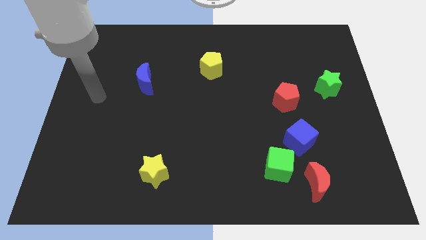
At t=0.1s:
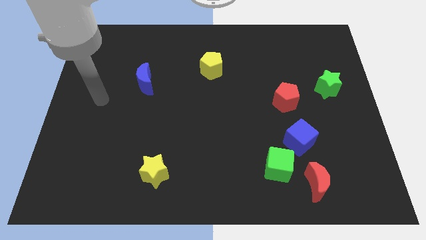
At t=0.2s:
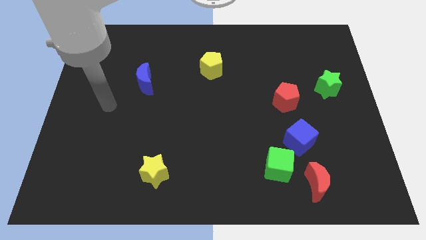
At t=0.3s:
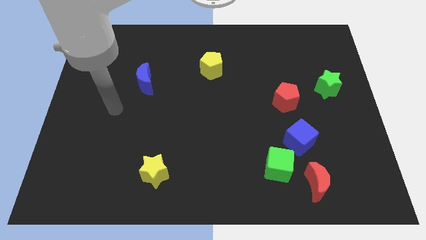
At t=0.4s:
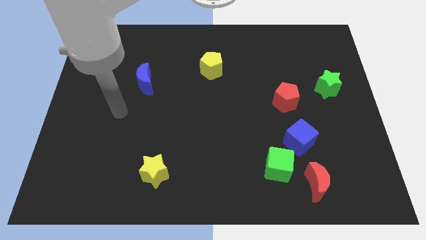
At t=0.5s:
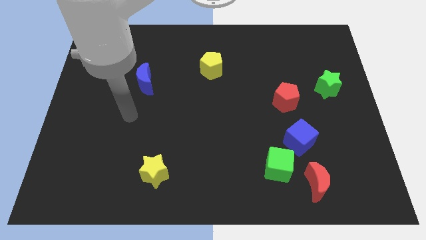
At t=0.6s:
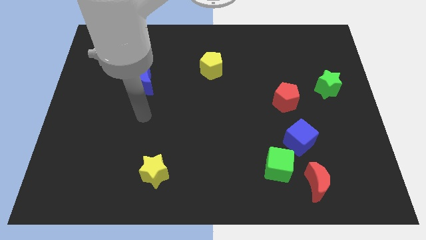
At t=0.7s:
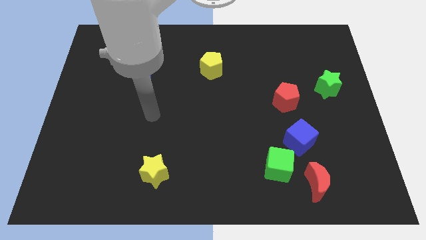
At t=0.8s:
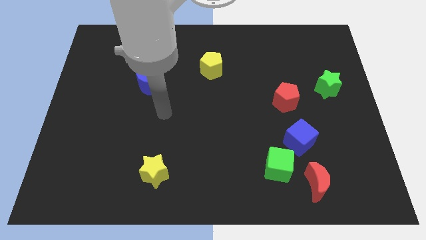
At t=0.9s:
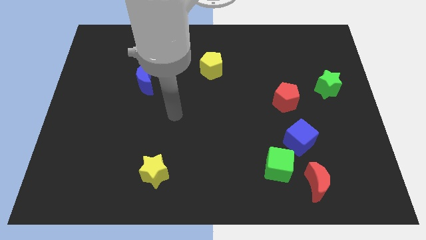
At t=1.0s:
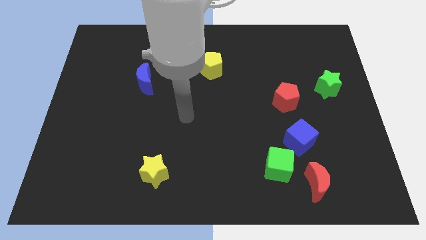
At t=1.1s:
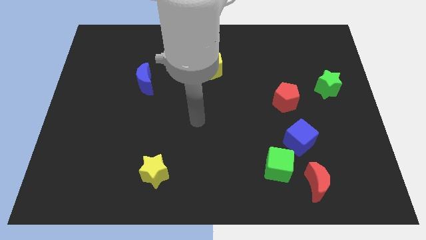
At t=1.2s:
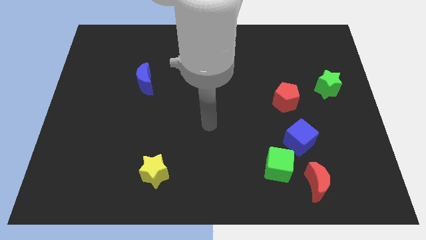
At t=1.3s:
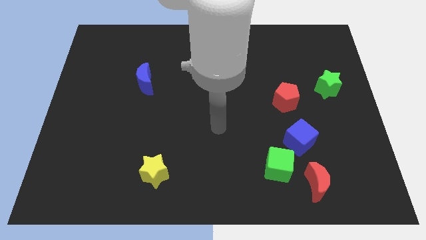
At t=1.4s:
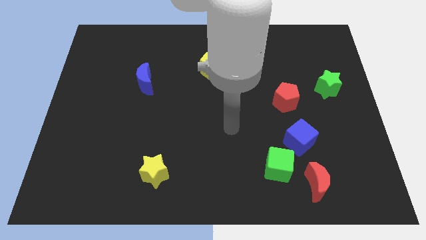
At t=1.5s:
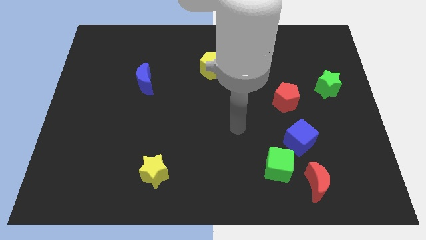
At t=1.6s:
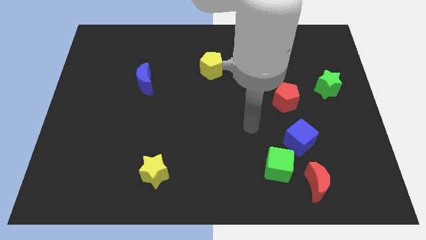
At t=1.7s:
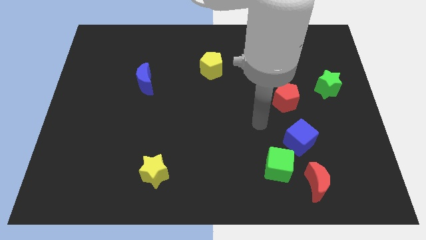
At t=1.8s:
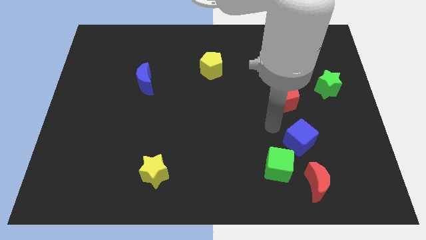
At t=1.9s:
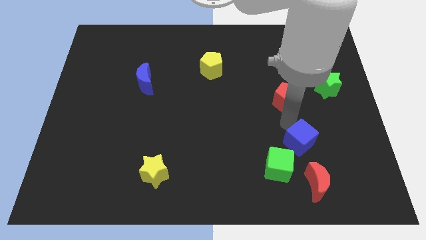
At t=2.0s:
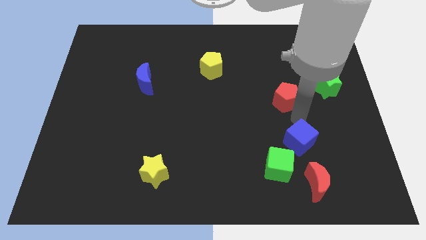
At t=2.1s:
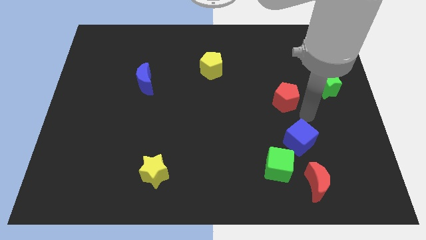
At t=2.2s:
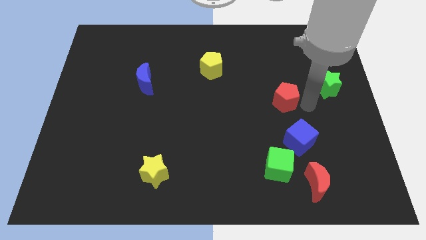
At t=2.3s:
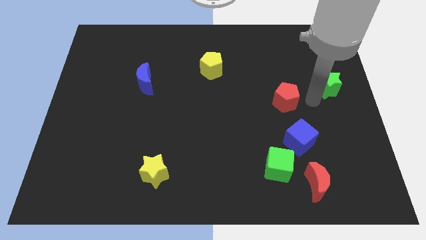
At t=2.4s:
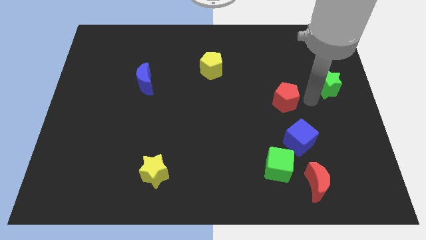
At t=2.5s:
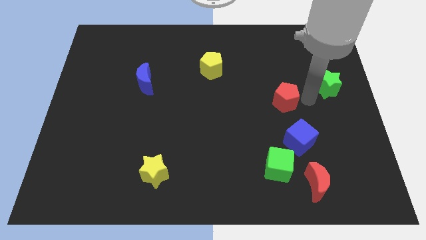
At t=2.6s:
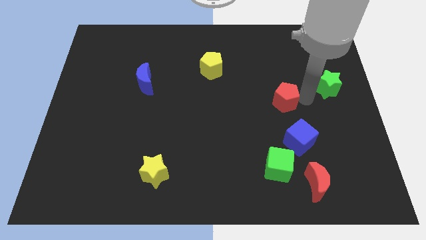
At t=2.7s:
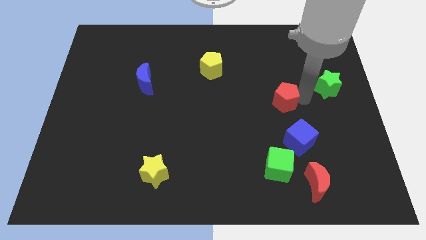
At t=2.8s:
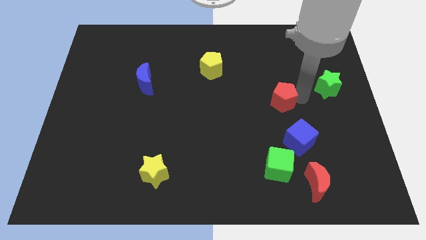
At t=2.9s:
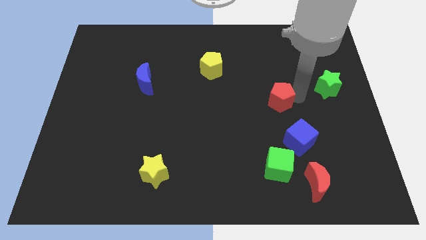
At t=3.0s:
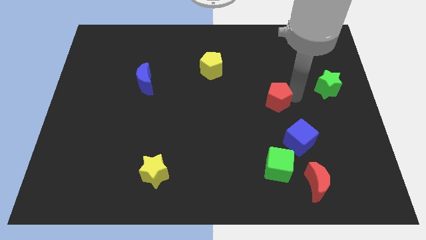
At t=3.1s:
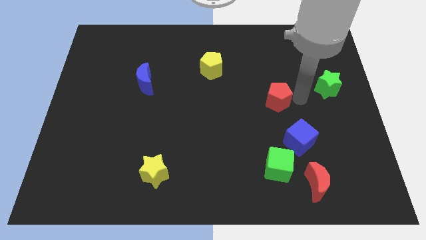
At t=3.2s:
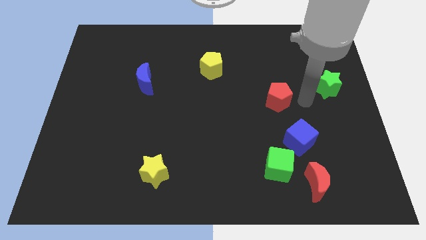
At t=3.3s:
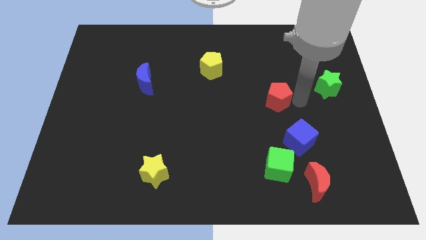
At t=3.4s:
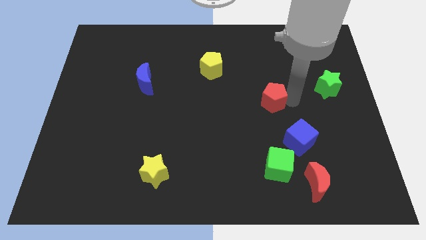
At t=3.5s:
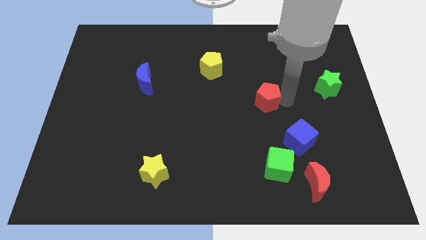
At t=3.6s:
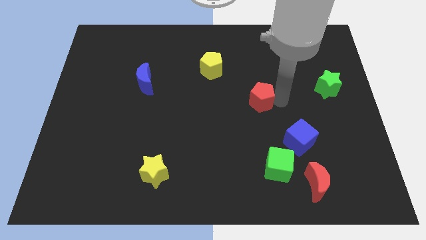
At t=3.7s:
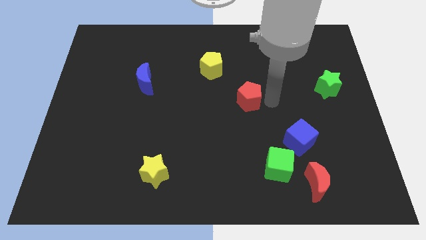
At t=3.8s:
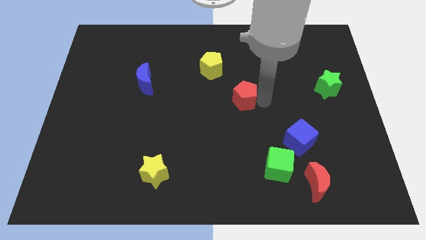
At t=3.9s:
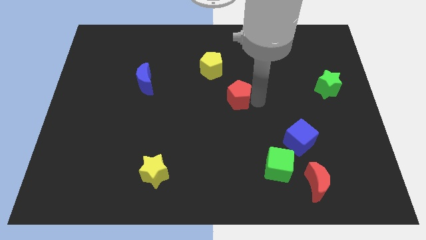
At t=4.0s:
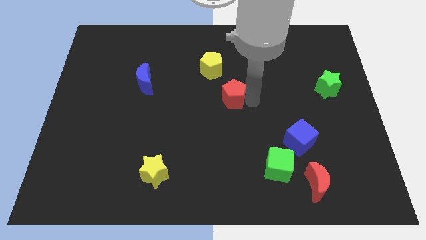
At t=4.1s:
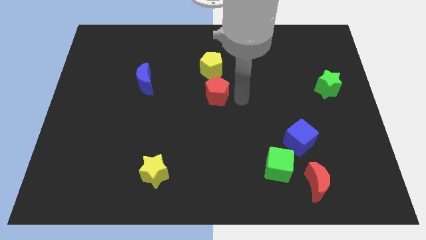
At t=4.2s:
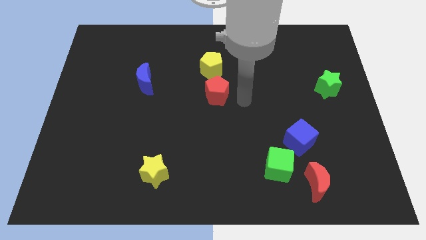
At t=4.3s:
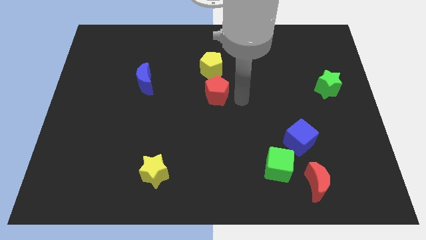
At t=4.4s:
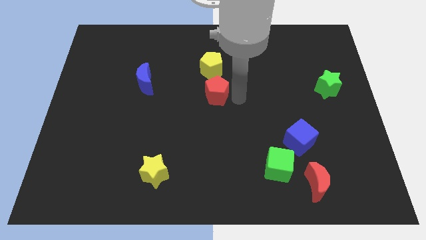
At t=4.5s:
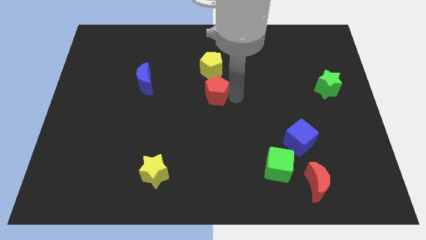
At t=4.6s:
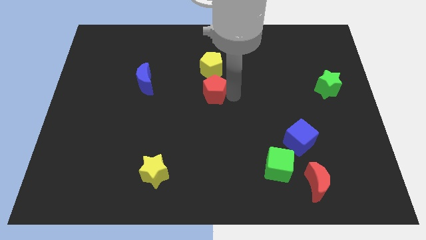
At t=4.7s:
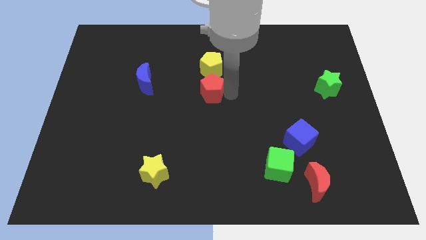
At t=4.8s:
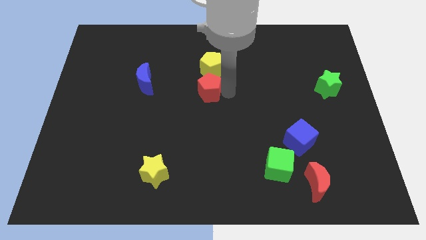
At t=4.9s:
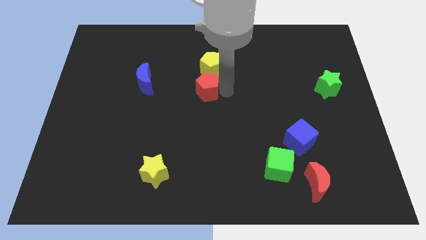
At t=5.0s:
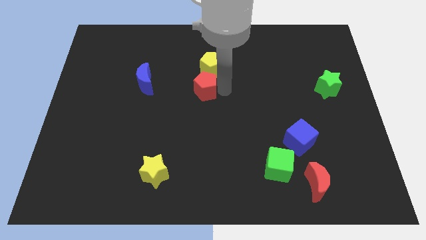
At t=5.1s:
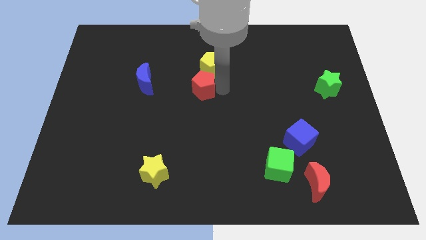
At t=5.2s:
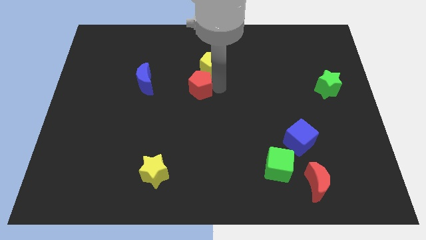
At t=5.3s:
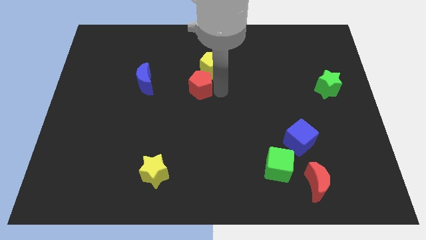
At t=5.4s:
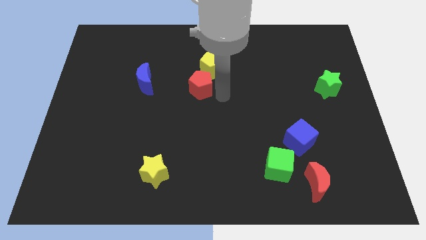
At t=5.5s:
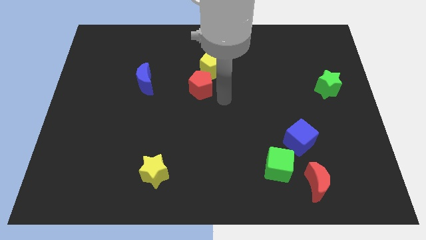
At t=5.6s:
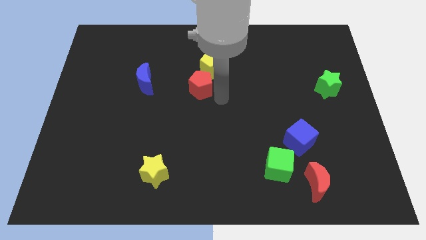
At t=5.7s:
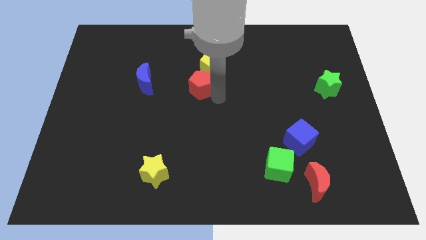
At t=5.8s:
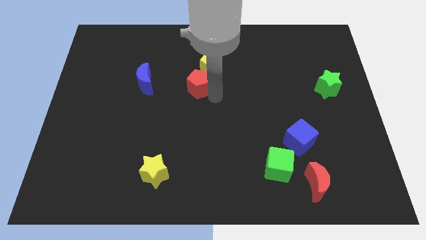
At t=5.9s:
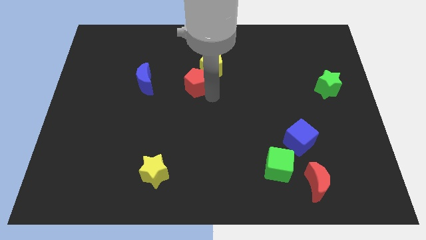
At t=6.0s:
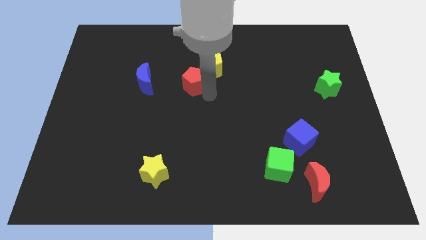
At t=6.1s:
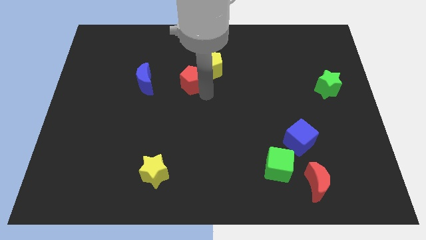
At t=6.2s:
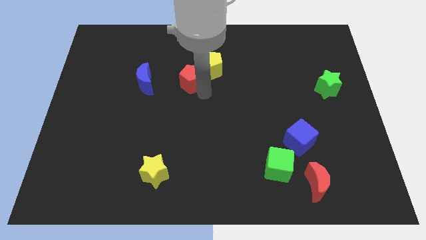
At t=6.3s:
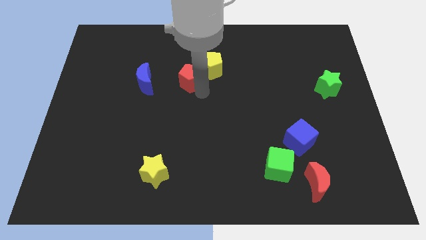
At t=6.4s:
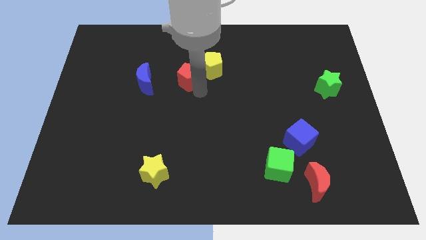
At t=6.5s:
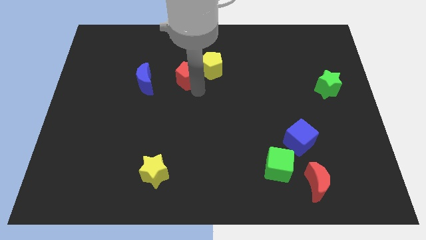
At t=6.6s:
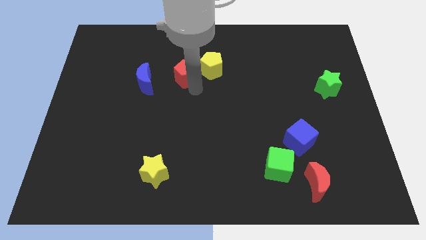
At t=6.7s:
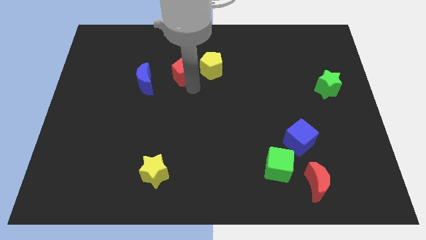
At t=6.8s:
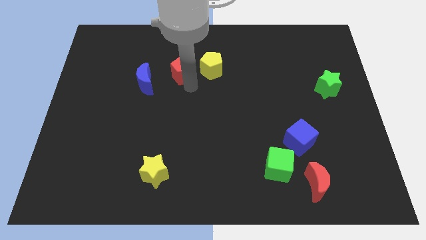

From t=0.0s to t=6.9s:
move the red pentagon to the top right side of the blue moon

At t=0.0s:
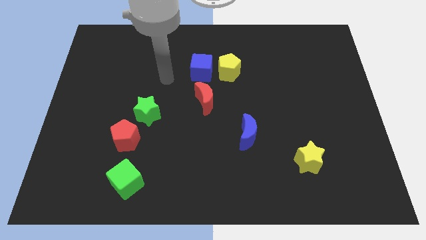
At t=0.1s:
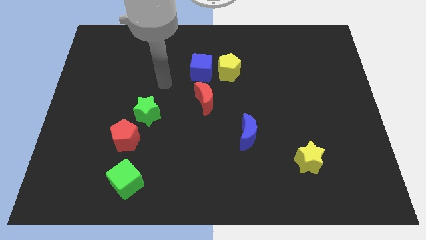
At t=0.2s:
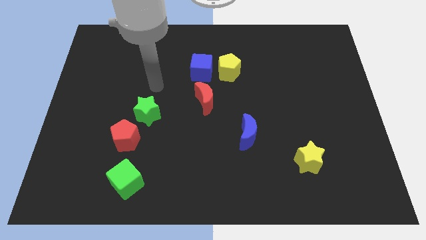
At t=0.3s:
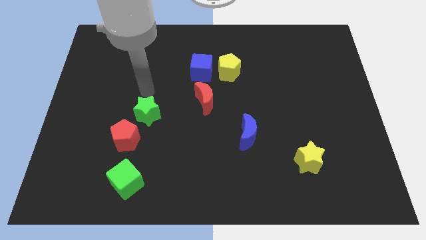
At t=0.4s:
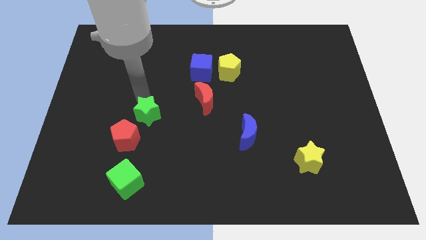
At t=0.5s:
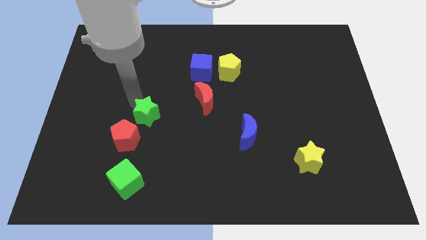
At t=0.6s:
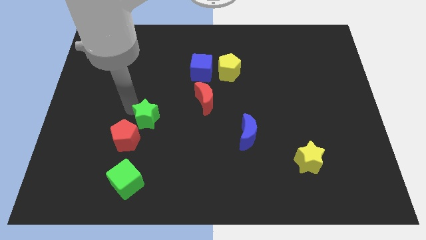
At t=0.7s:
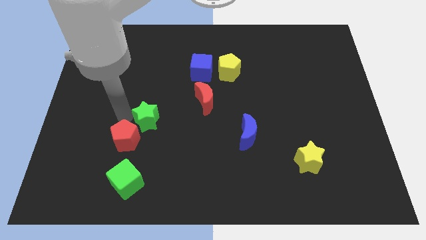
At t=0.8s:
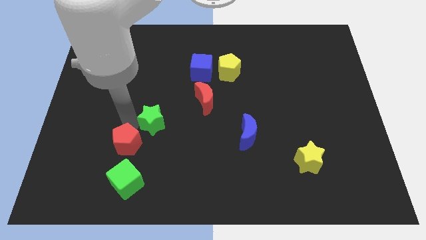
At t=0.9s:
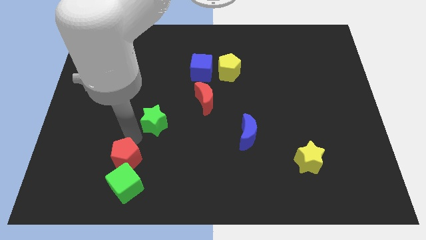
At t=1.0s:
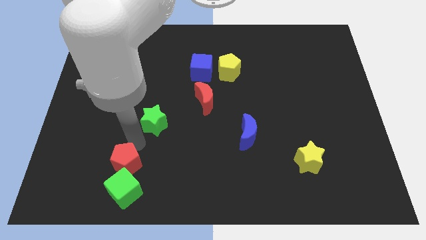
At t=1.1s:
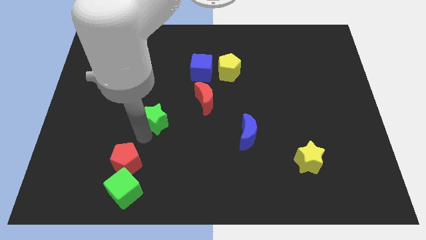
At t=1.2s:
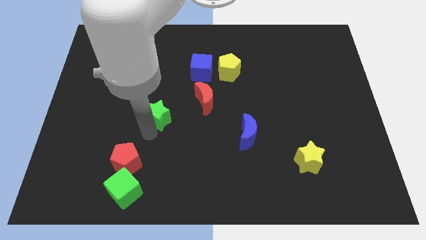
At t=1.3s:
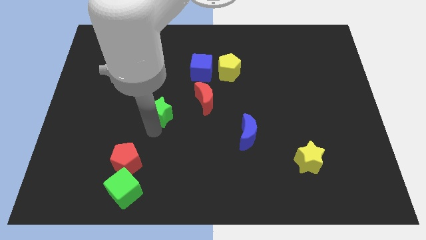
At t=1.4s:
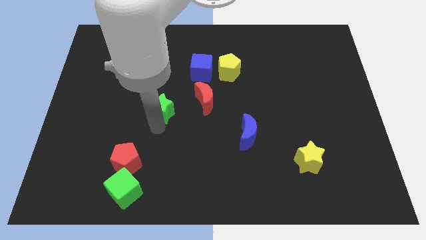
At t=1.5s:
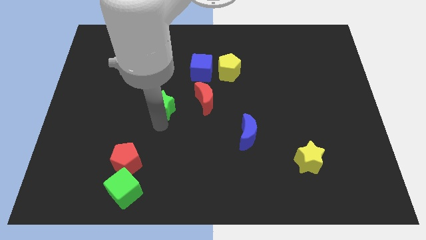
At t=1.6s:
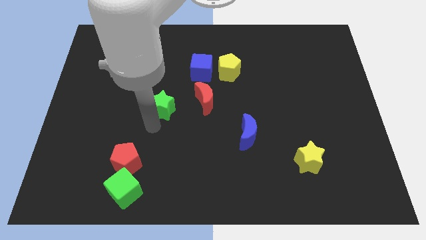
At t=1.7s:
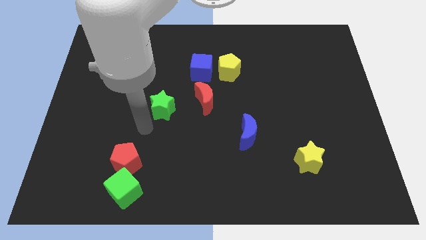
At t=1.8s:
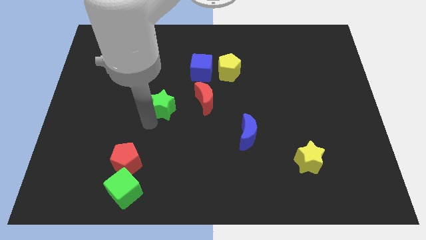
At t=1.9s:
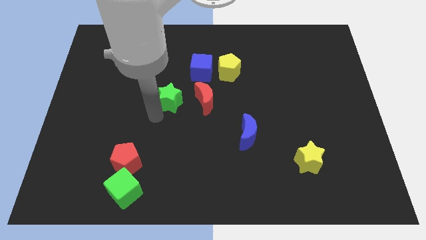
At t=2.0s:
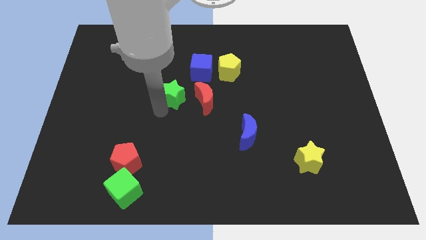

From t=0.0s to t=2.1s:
put the green star to the top left of the red moon
